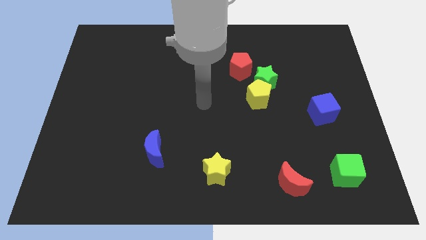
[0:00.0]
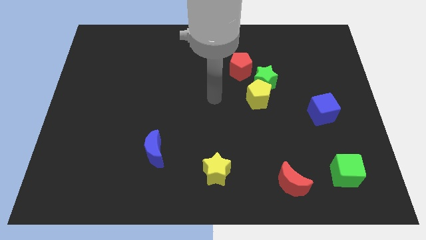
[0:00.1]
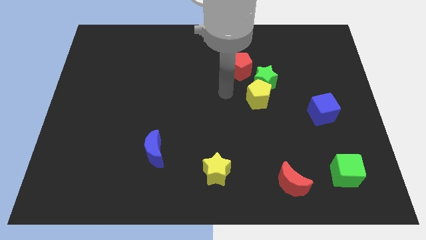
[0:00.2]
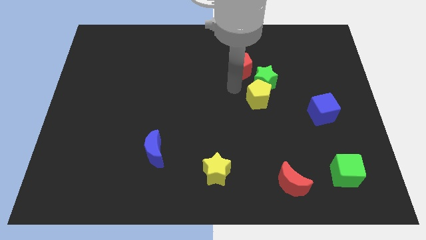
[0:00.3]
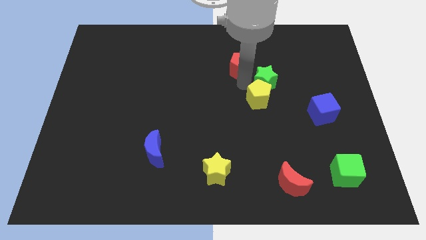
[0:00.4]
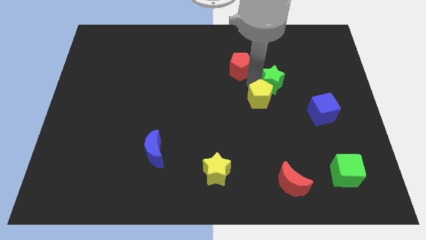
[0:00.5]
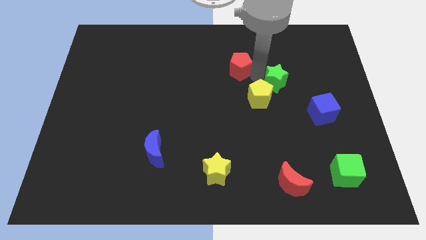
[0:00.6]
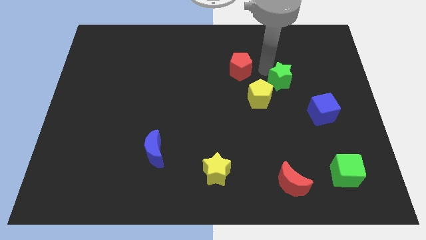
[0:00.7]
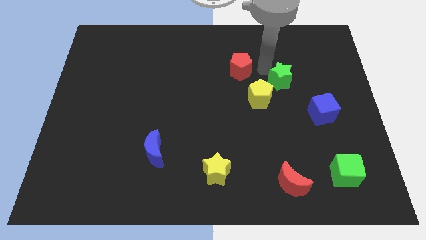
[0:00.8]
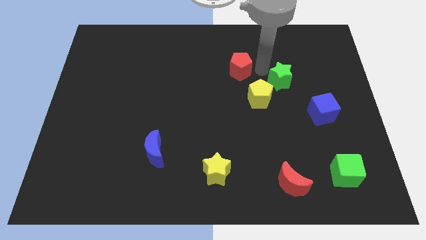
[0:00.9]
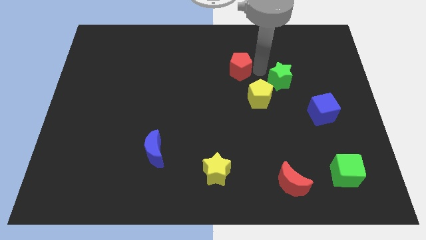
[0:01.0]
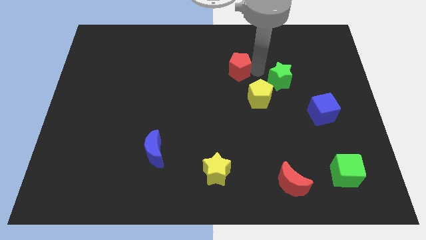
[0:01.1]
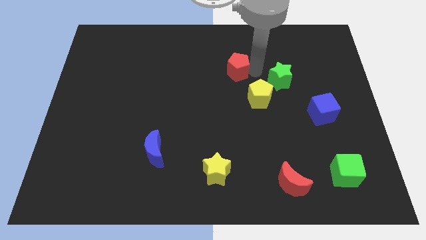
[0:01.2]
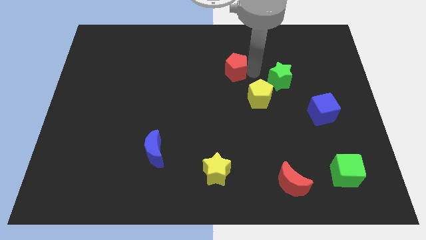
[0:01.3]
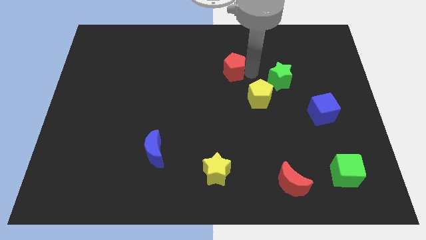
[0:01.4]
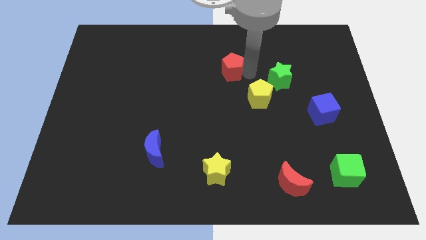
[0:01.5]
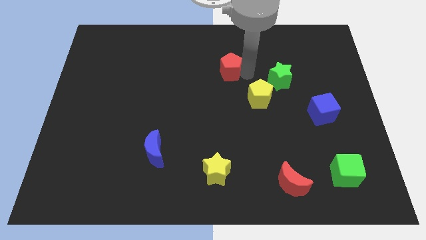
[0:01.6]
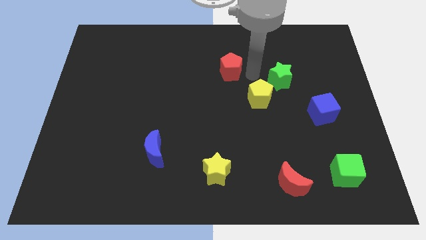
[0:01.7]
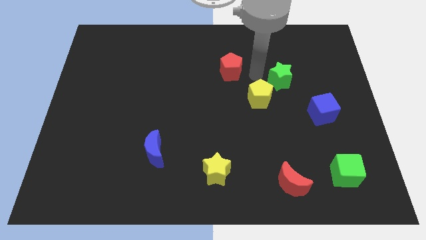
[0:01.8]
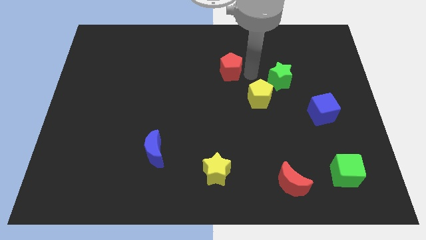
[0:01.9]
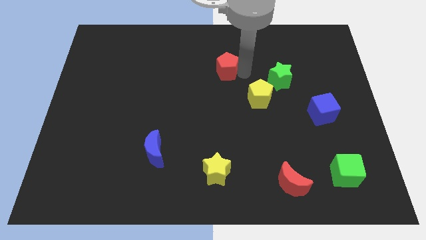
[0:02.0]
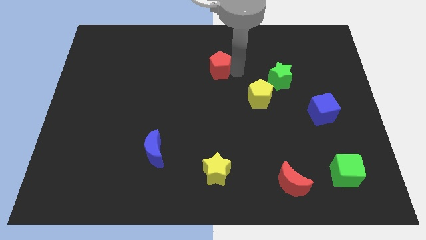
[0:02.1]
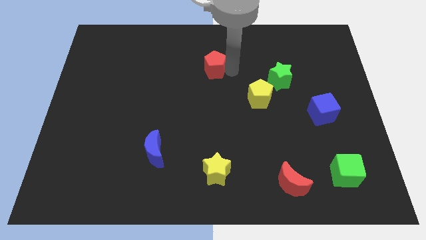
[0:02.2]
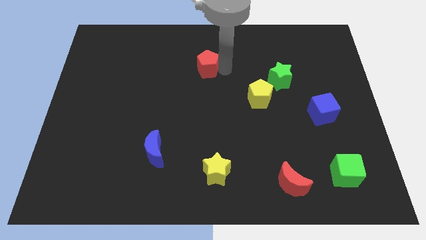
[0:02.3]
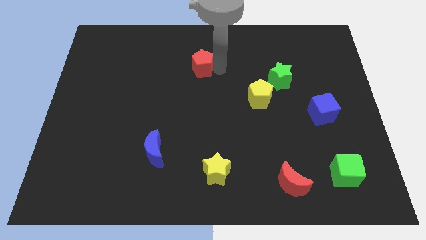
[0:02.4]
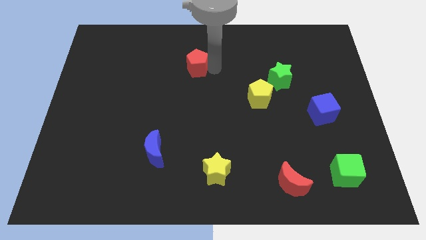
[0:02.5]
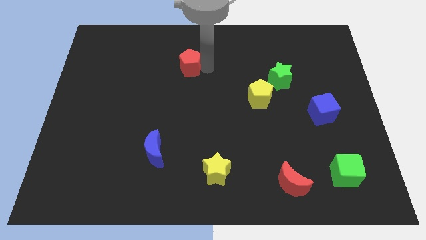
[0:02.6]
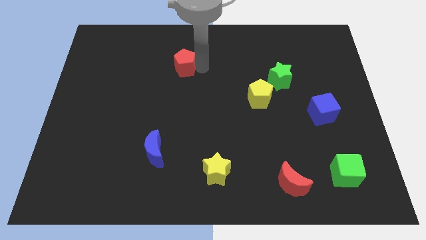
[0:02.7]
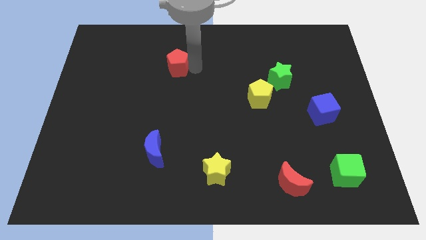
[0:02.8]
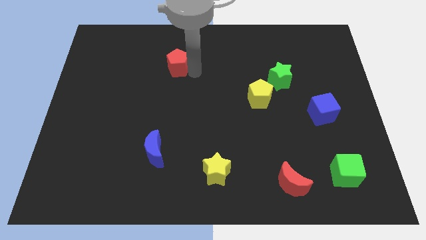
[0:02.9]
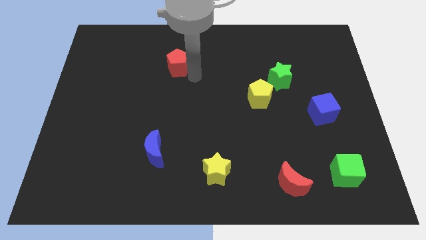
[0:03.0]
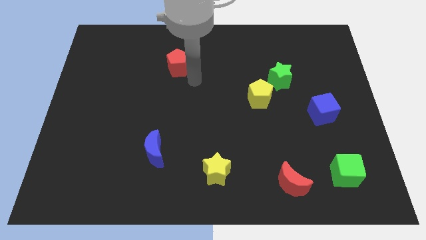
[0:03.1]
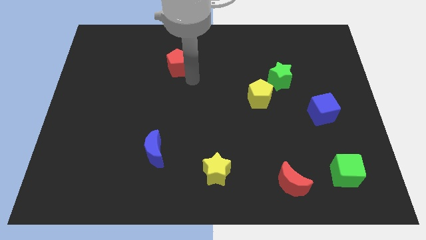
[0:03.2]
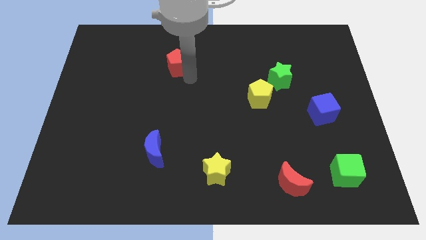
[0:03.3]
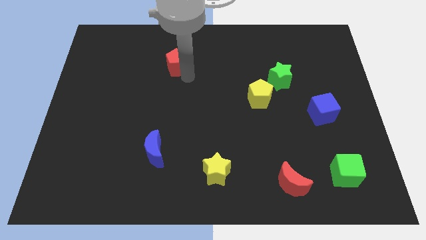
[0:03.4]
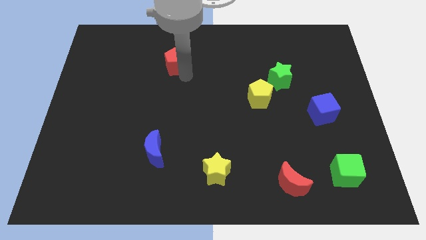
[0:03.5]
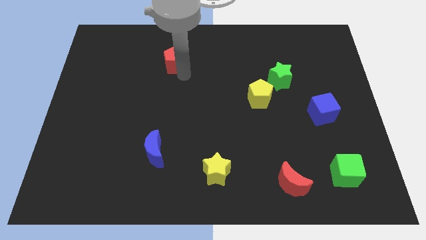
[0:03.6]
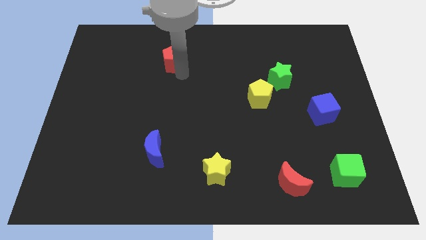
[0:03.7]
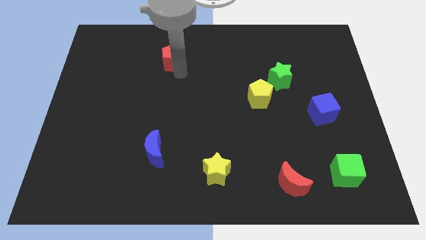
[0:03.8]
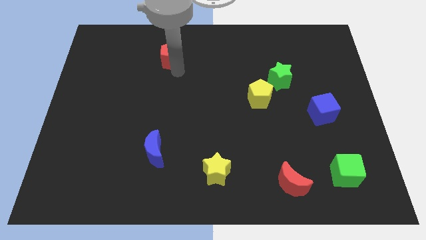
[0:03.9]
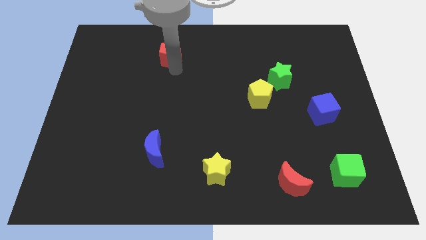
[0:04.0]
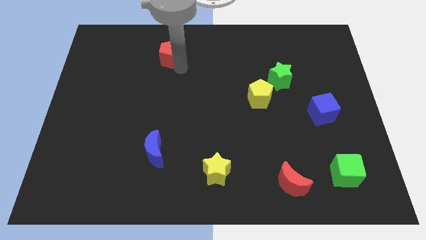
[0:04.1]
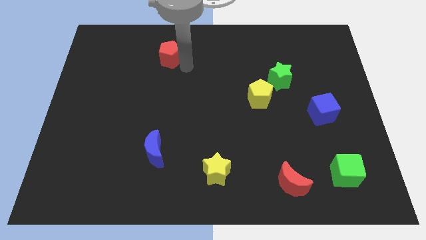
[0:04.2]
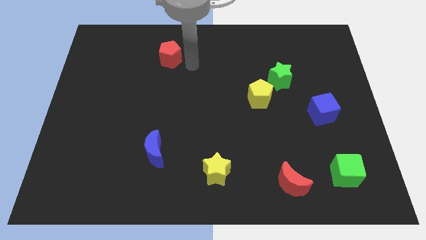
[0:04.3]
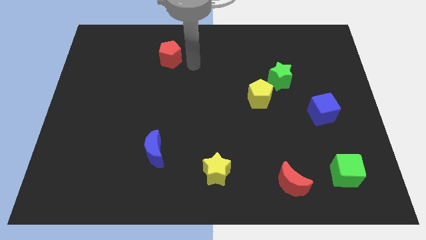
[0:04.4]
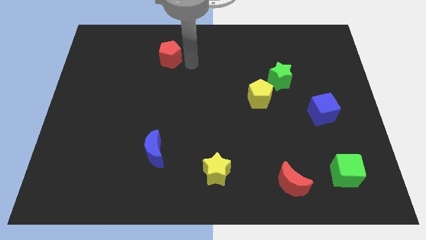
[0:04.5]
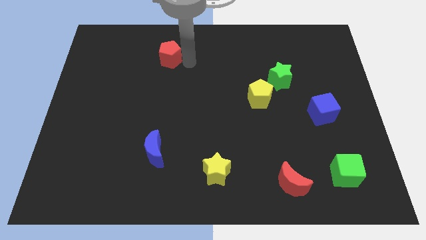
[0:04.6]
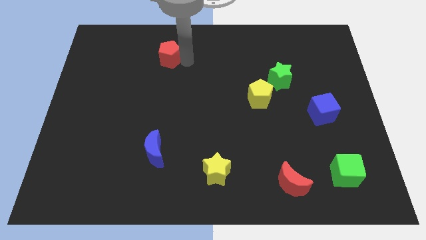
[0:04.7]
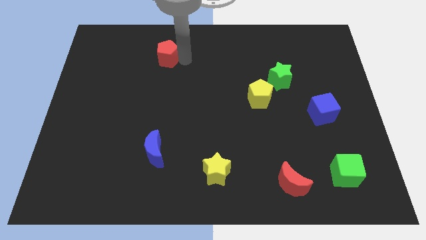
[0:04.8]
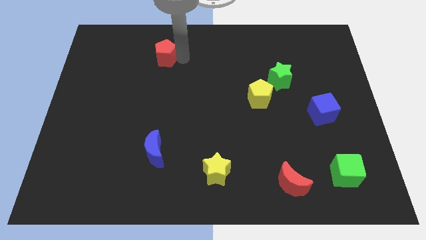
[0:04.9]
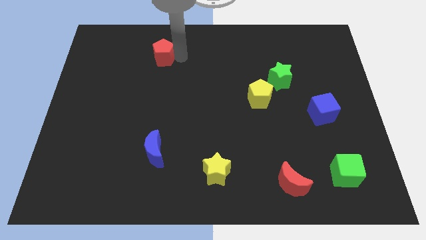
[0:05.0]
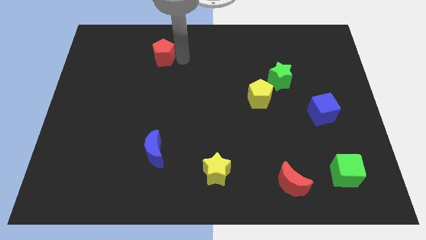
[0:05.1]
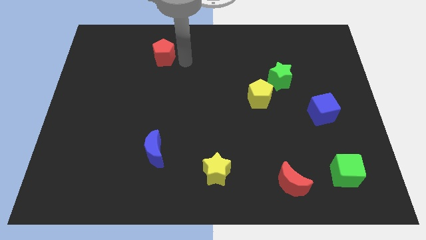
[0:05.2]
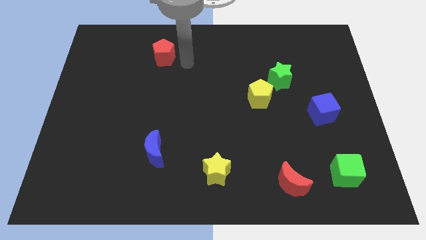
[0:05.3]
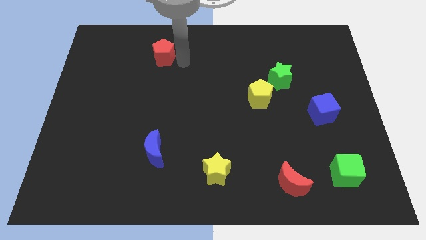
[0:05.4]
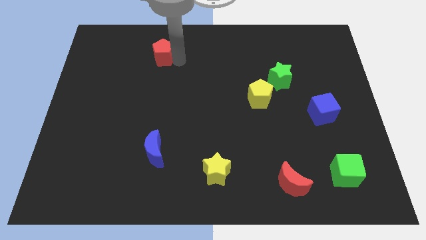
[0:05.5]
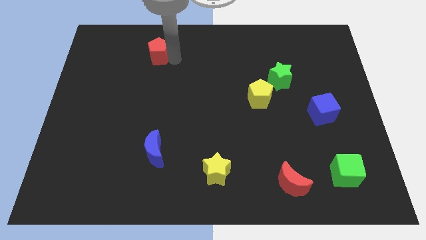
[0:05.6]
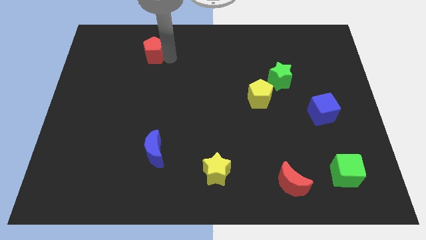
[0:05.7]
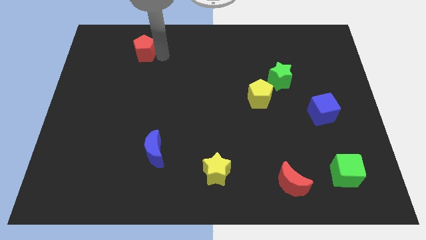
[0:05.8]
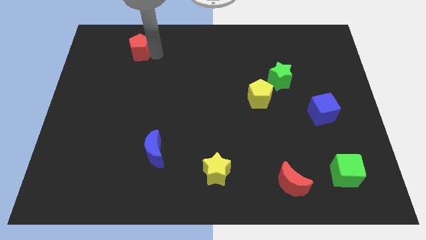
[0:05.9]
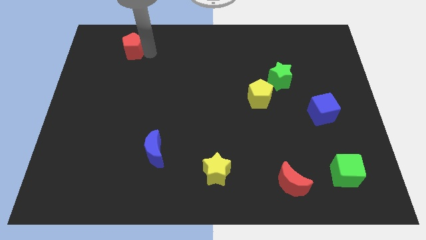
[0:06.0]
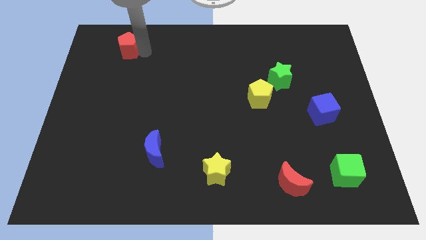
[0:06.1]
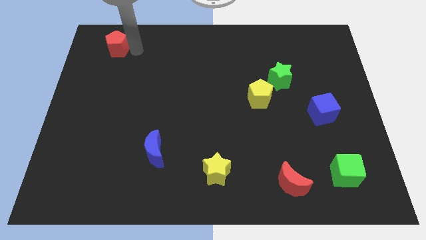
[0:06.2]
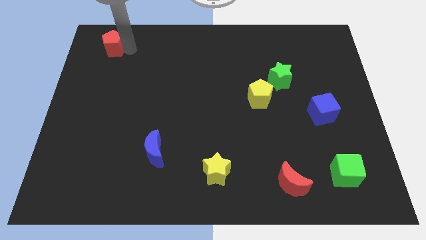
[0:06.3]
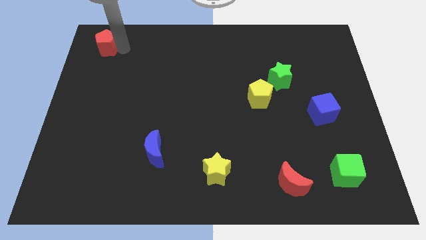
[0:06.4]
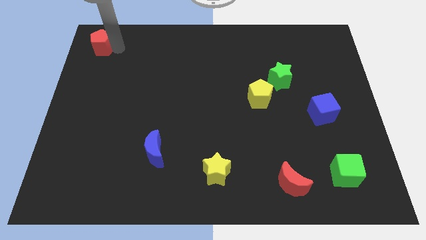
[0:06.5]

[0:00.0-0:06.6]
slide the red pentagon to the upper left corner
